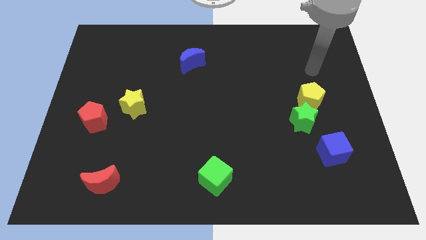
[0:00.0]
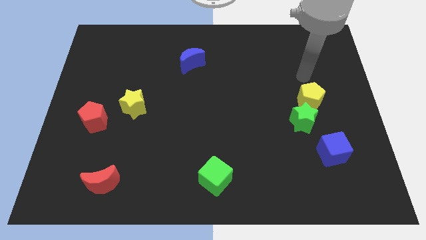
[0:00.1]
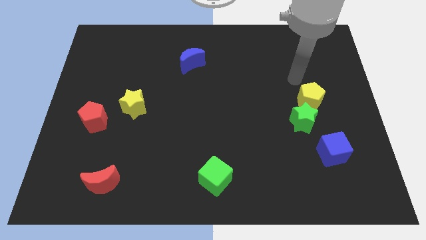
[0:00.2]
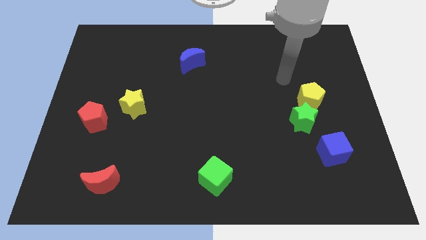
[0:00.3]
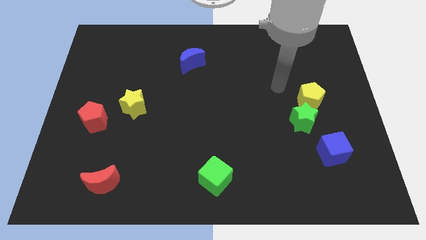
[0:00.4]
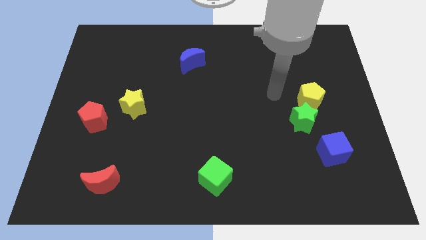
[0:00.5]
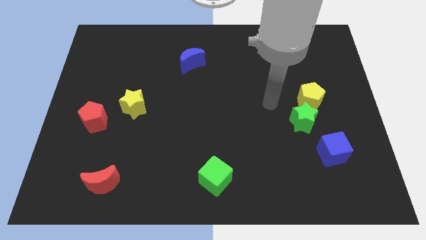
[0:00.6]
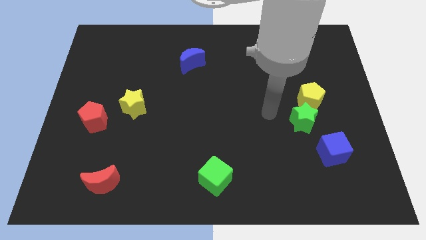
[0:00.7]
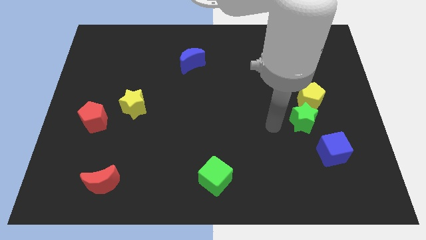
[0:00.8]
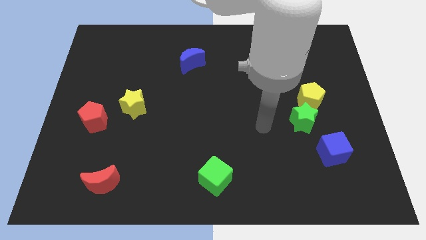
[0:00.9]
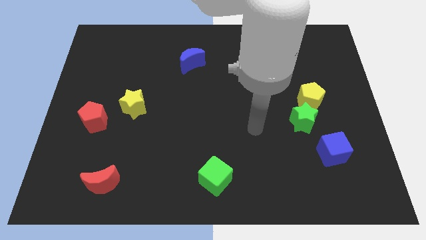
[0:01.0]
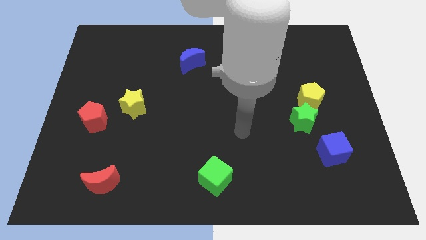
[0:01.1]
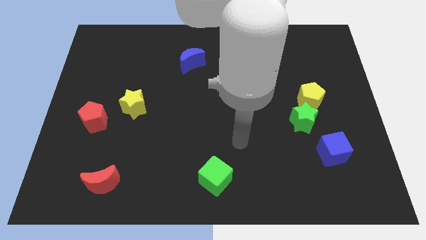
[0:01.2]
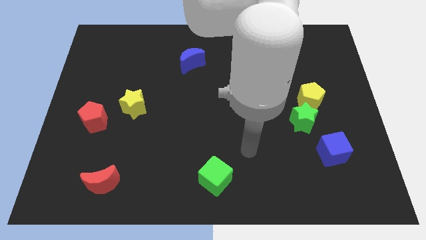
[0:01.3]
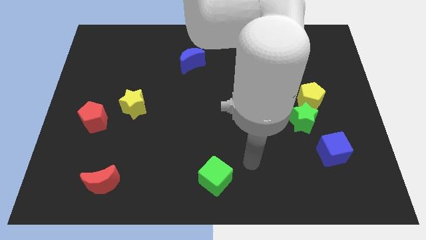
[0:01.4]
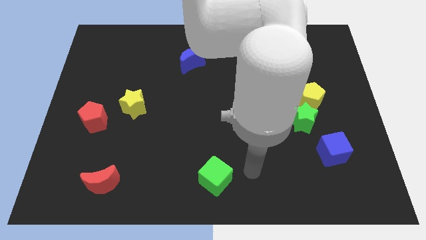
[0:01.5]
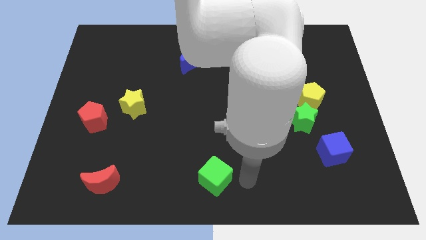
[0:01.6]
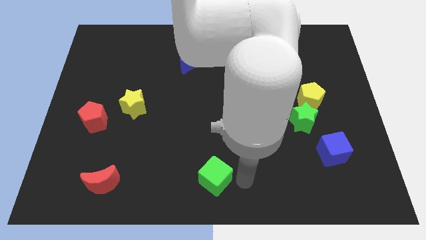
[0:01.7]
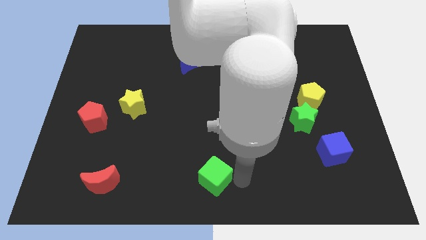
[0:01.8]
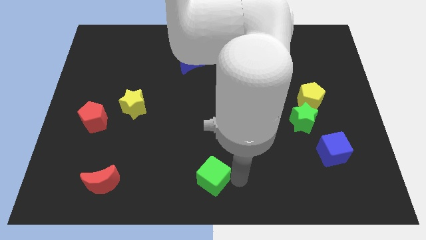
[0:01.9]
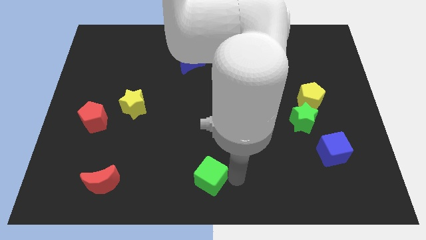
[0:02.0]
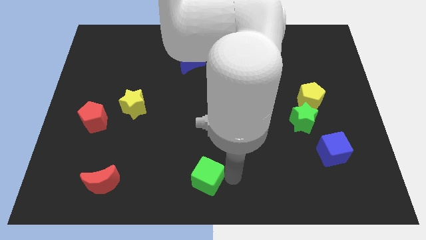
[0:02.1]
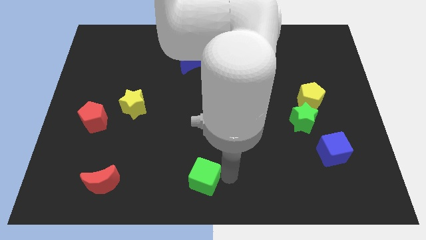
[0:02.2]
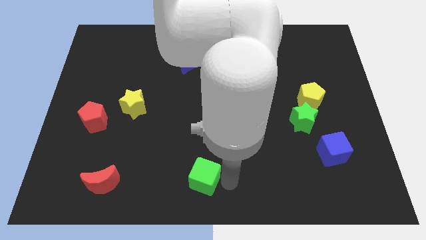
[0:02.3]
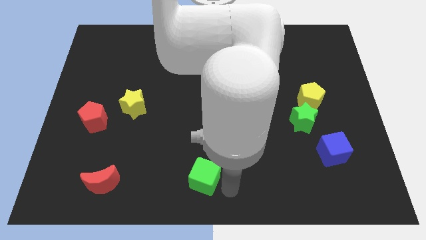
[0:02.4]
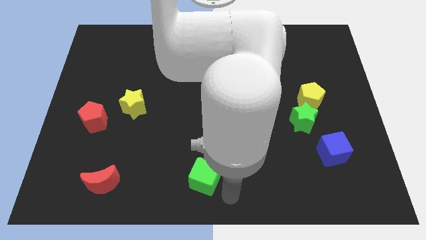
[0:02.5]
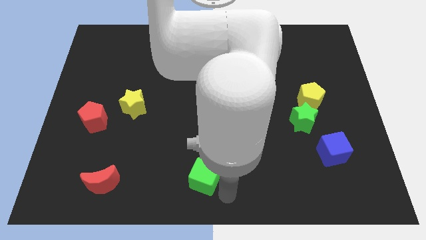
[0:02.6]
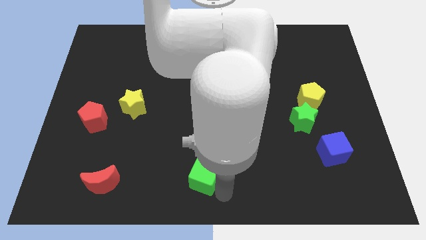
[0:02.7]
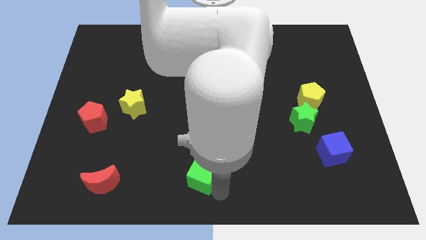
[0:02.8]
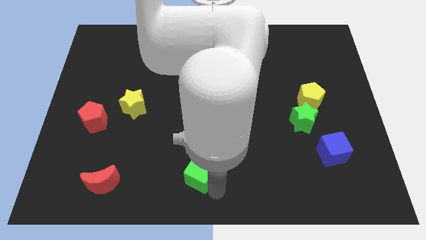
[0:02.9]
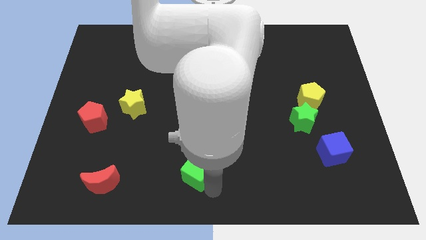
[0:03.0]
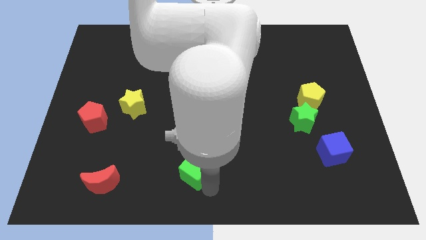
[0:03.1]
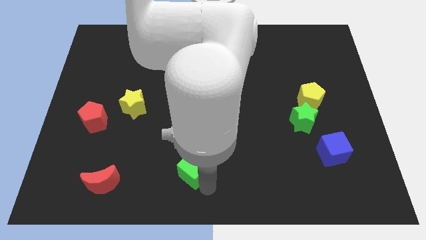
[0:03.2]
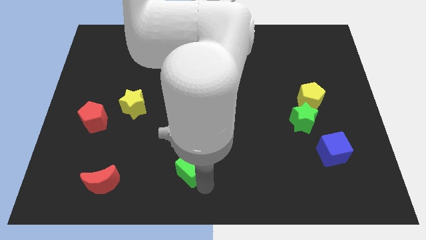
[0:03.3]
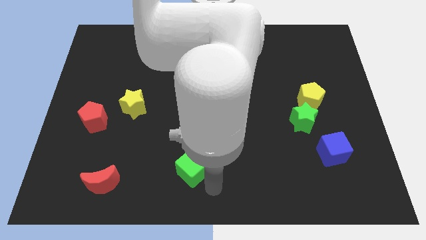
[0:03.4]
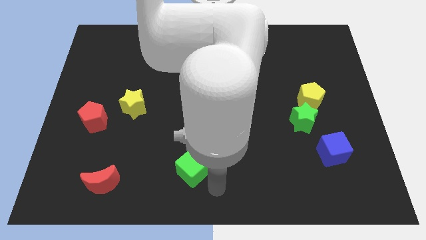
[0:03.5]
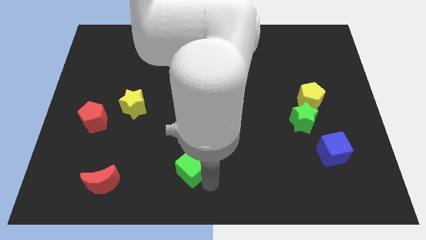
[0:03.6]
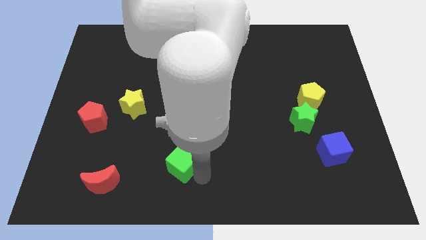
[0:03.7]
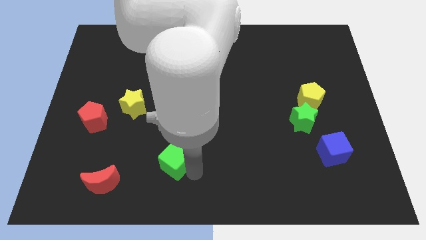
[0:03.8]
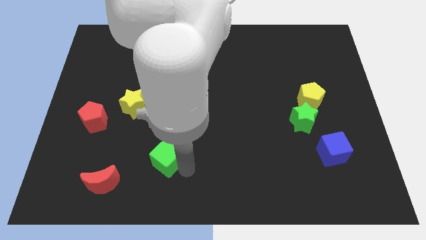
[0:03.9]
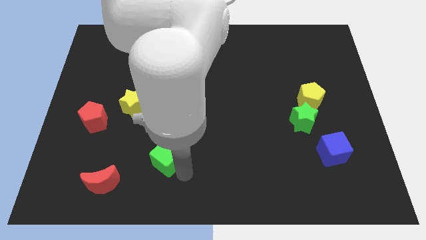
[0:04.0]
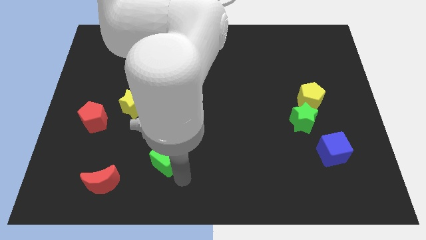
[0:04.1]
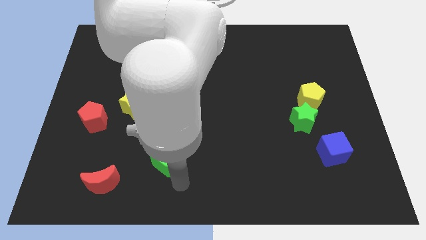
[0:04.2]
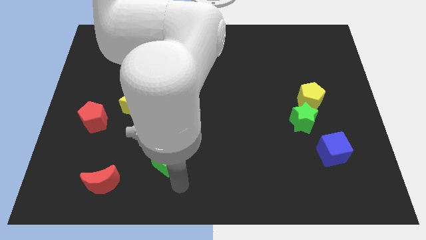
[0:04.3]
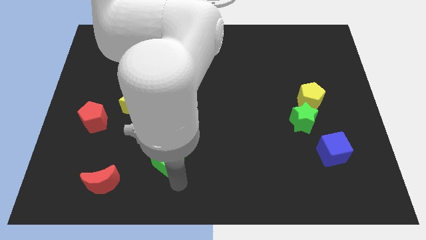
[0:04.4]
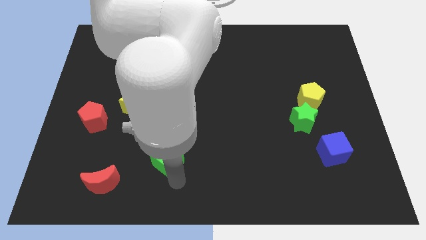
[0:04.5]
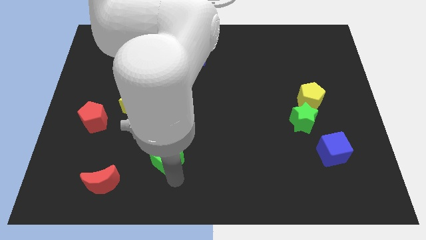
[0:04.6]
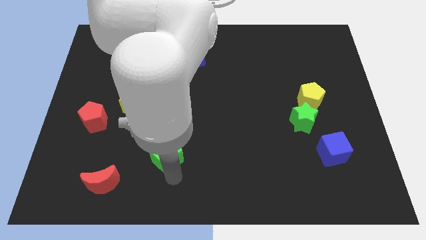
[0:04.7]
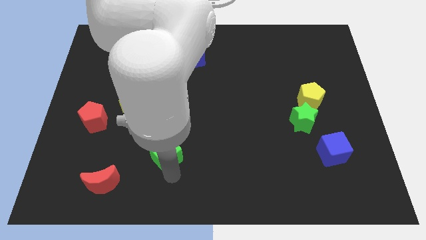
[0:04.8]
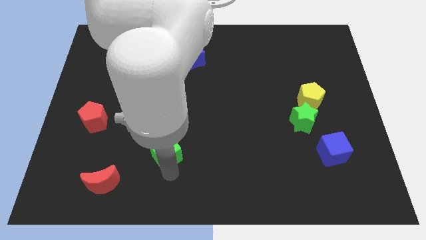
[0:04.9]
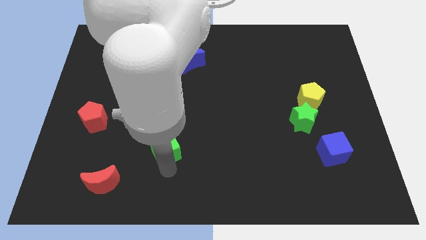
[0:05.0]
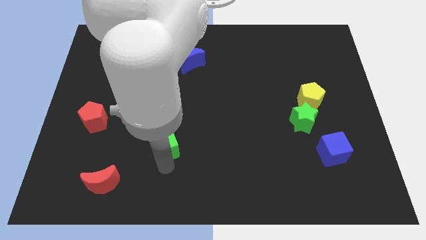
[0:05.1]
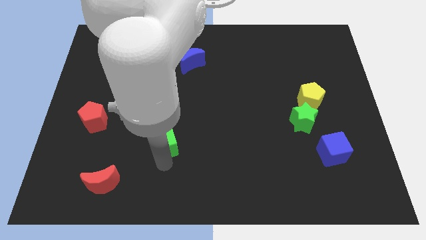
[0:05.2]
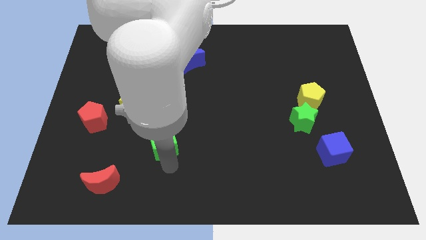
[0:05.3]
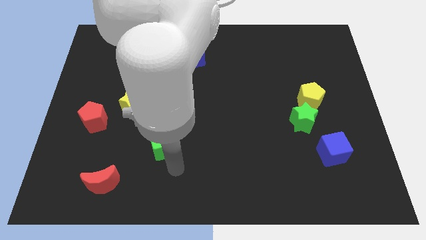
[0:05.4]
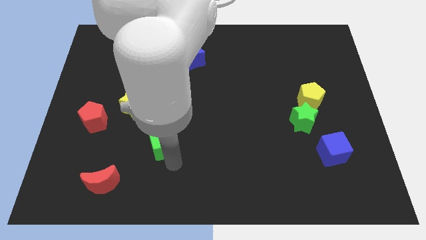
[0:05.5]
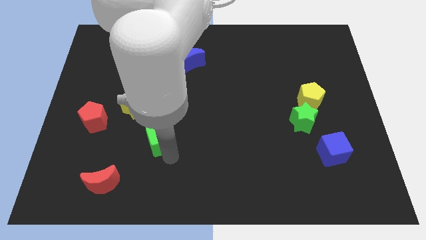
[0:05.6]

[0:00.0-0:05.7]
move the green cube to the bottom right side of the yellow star
